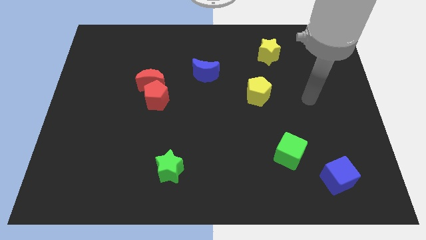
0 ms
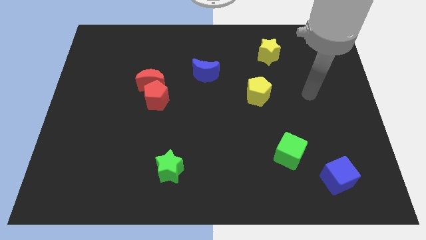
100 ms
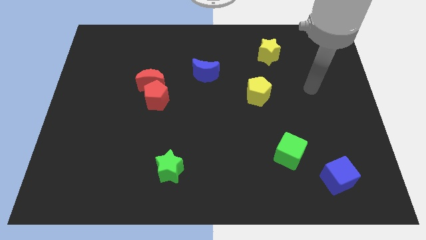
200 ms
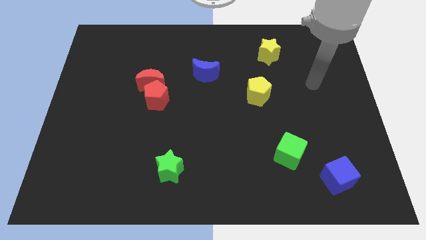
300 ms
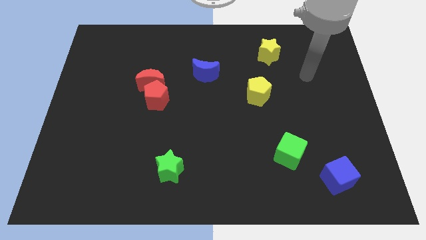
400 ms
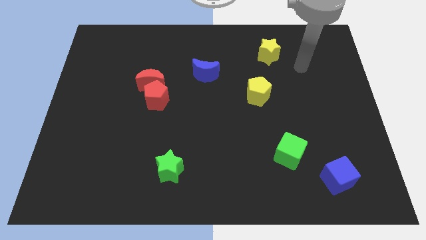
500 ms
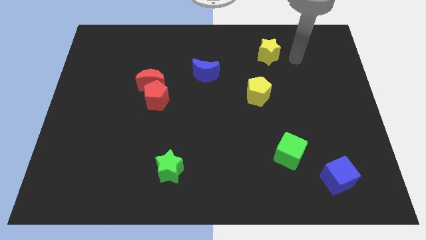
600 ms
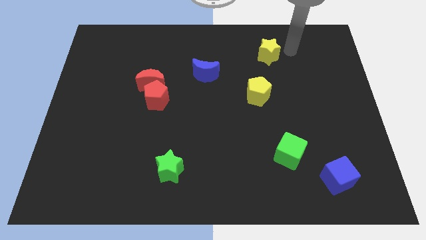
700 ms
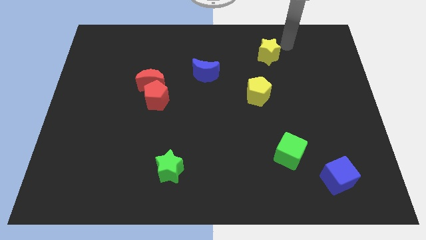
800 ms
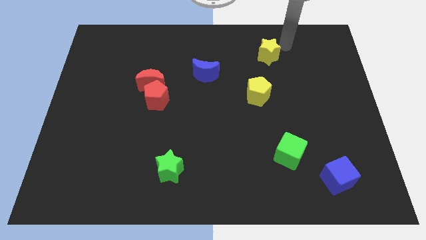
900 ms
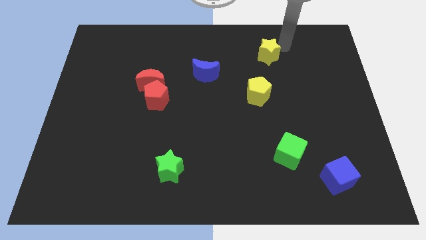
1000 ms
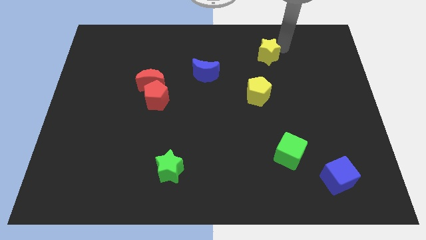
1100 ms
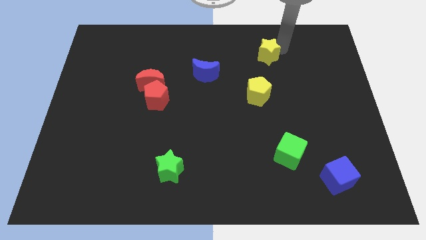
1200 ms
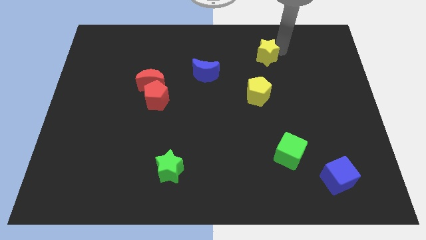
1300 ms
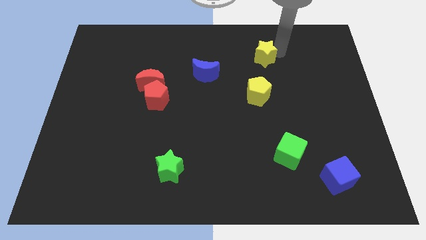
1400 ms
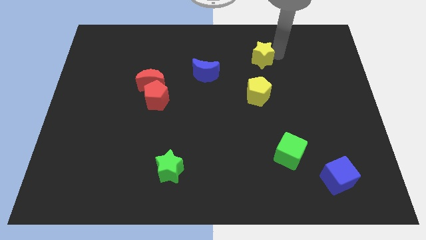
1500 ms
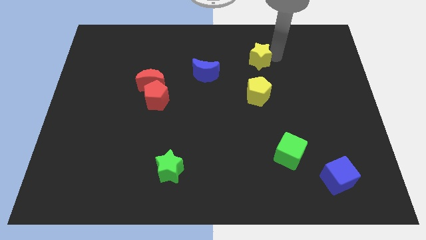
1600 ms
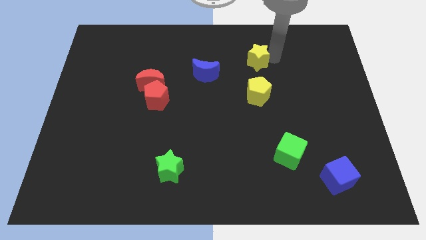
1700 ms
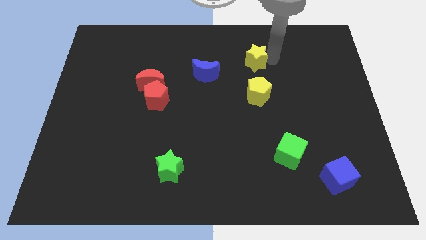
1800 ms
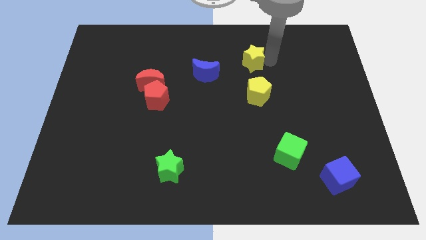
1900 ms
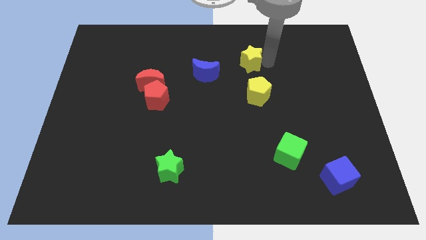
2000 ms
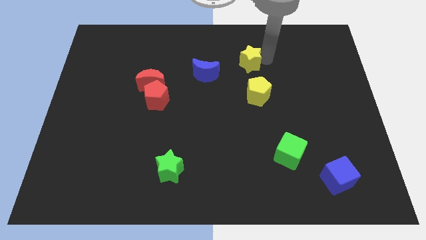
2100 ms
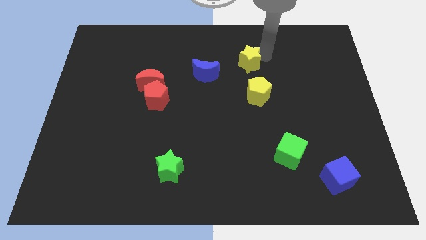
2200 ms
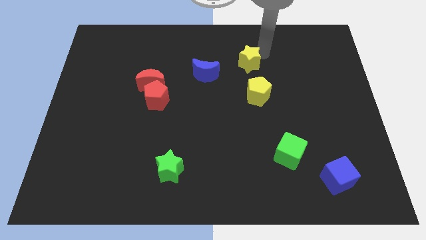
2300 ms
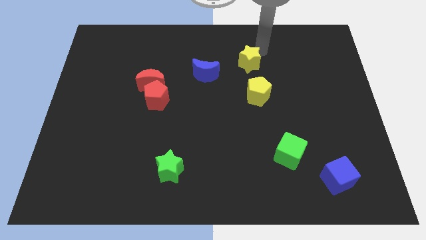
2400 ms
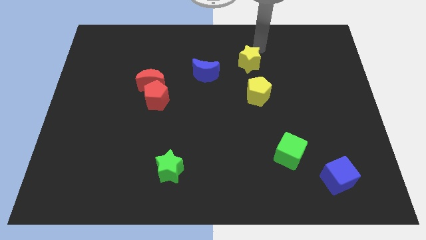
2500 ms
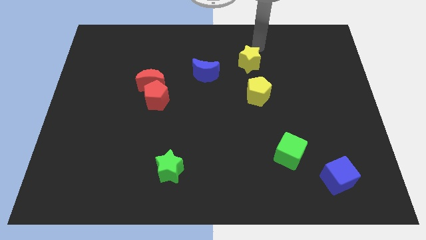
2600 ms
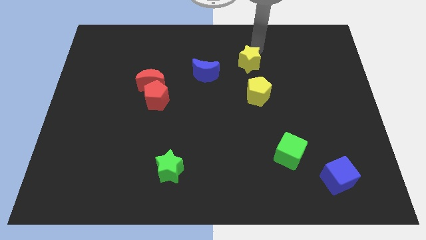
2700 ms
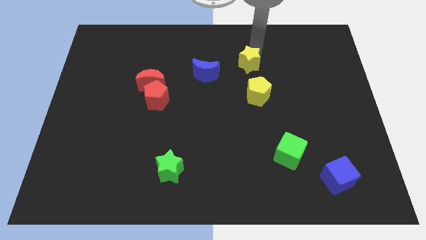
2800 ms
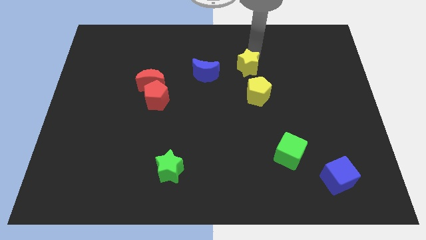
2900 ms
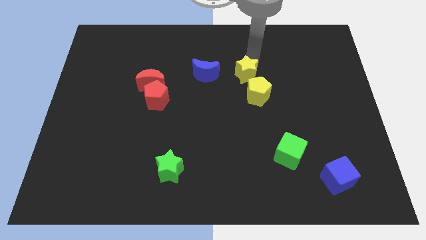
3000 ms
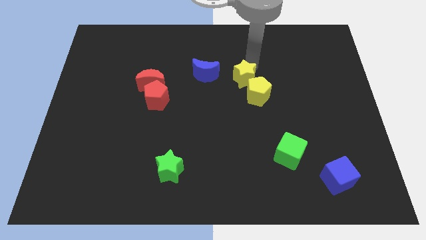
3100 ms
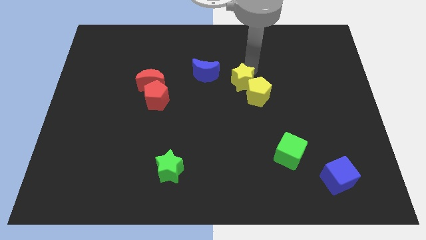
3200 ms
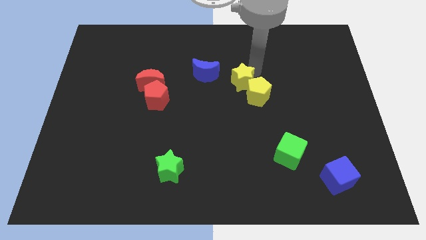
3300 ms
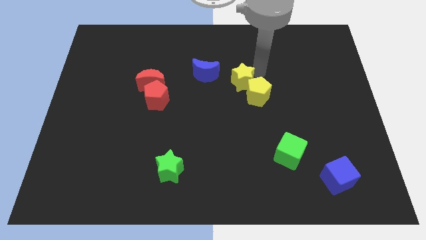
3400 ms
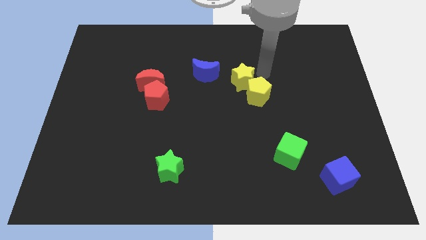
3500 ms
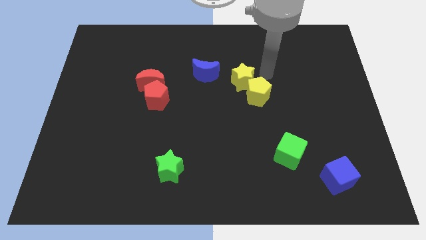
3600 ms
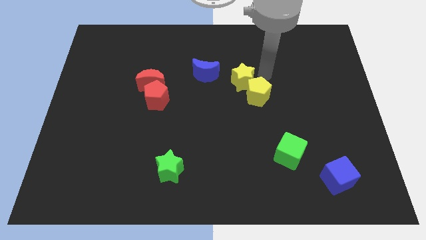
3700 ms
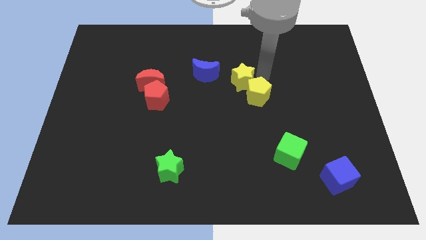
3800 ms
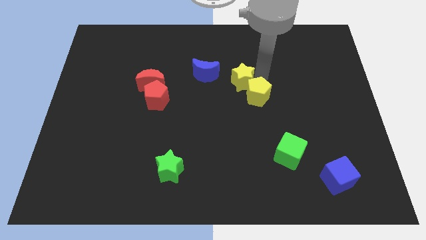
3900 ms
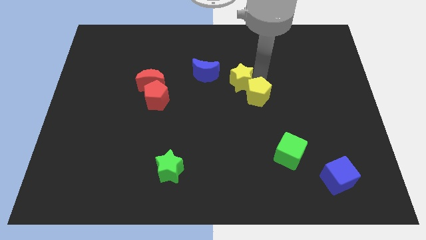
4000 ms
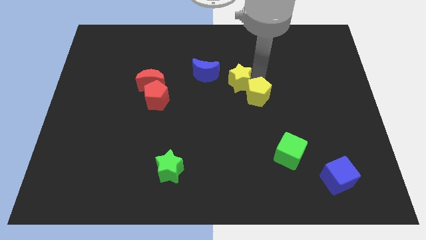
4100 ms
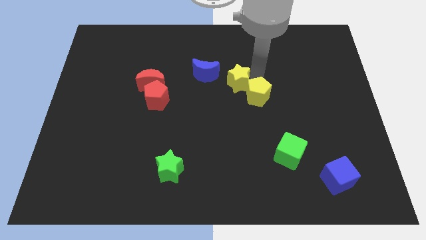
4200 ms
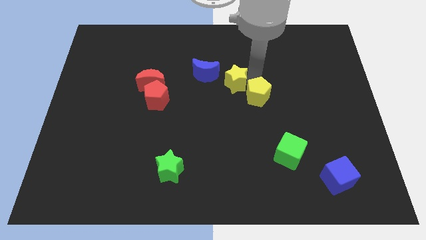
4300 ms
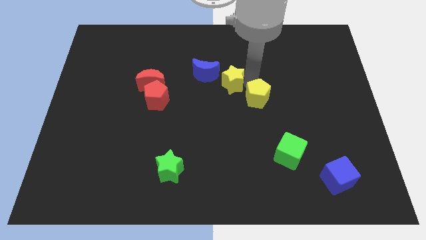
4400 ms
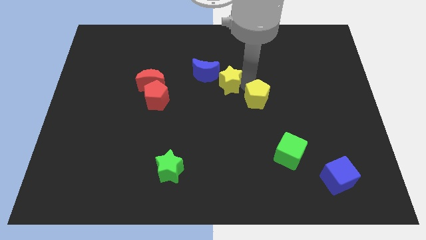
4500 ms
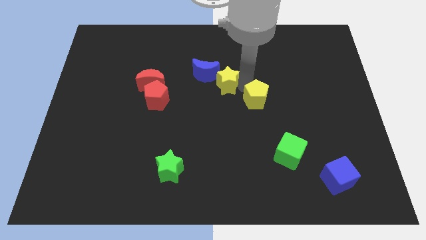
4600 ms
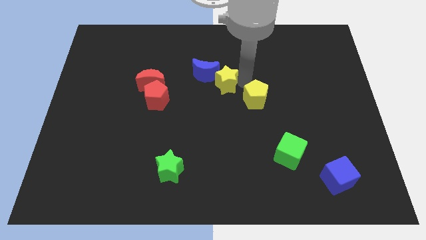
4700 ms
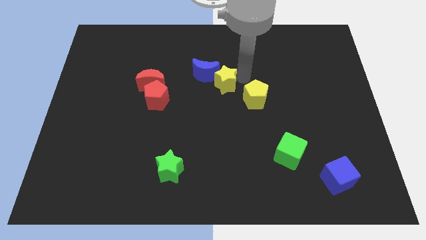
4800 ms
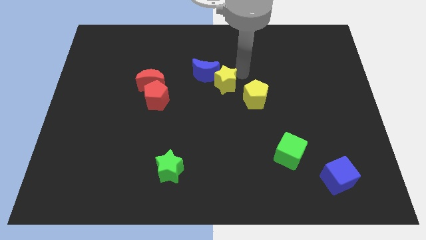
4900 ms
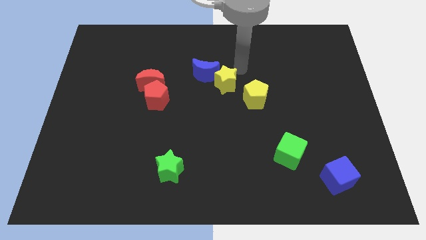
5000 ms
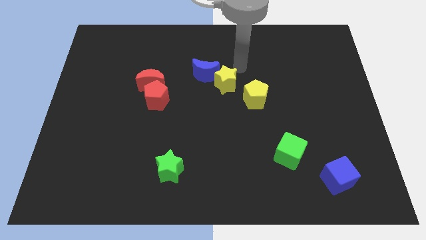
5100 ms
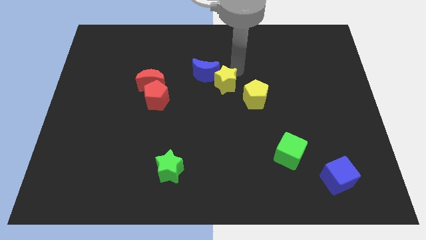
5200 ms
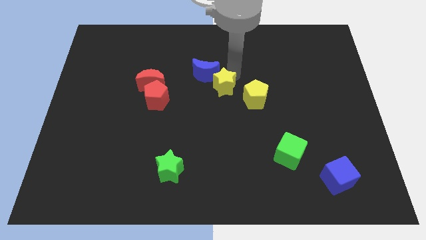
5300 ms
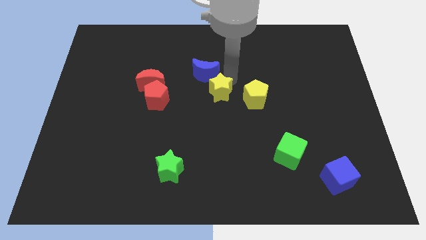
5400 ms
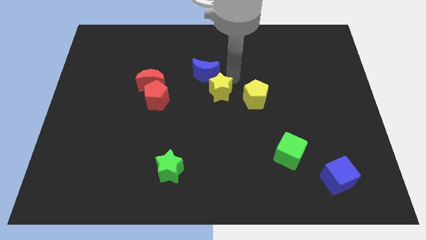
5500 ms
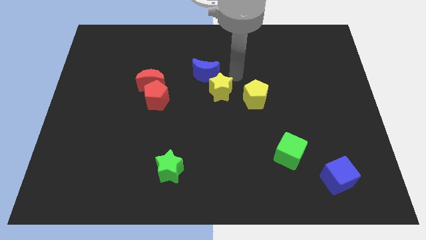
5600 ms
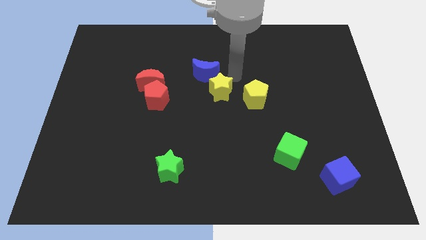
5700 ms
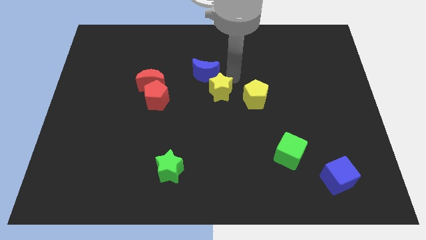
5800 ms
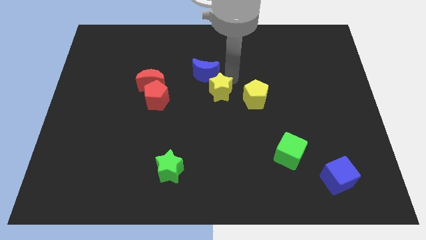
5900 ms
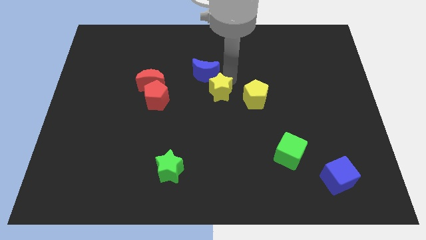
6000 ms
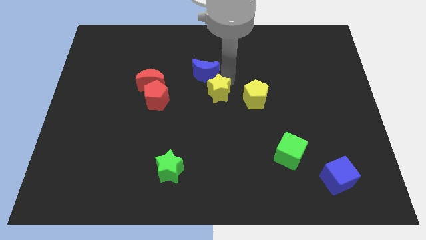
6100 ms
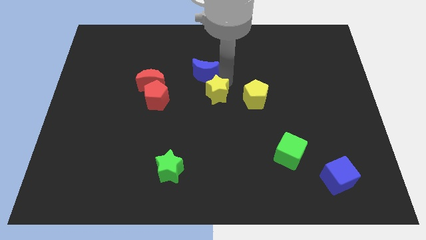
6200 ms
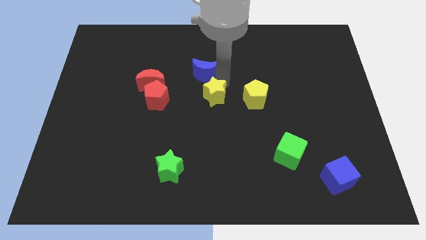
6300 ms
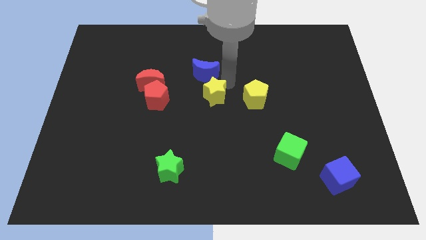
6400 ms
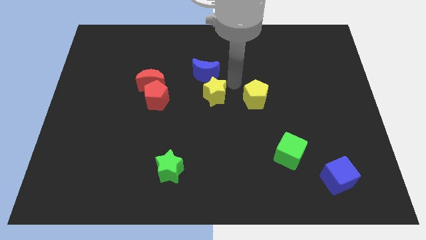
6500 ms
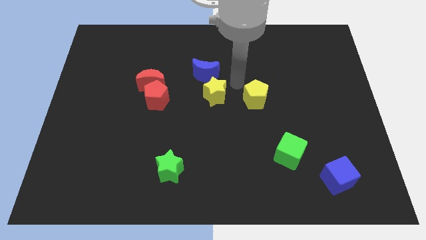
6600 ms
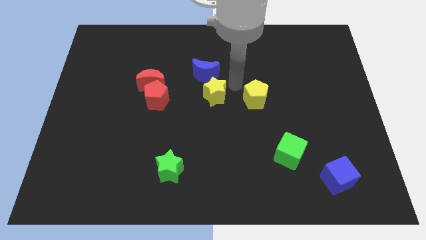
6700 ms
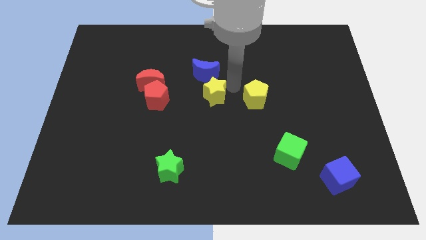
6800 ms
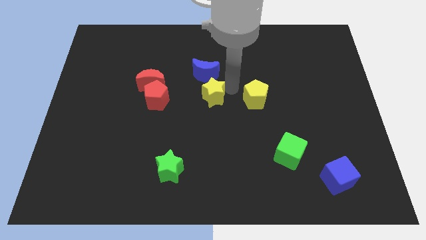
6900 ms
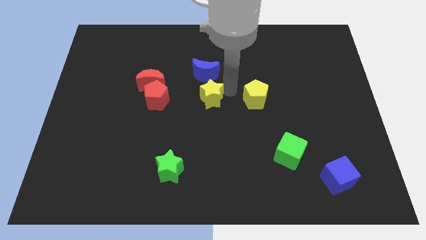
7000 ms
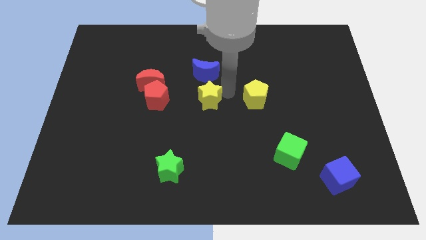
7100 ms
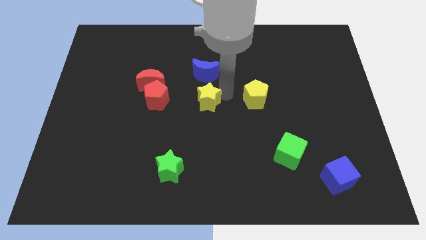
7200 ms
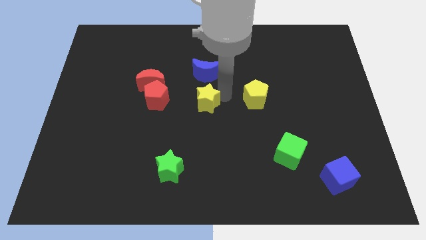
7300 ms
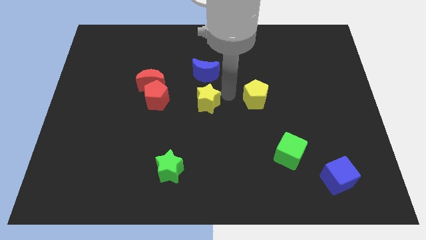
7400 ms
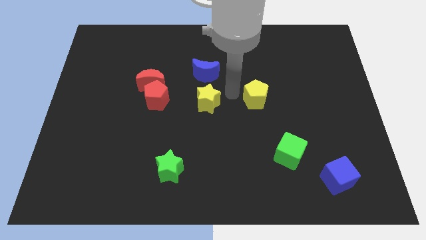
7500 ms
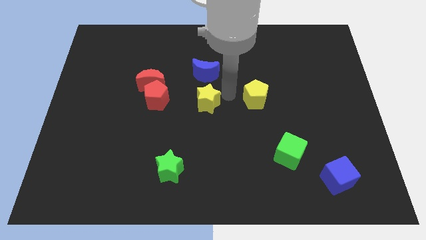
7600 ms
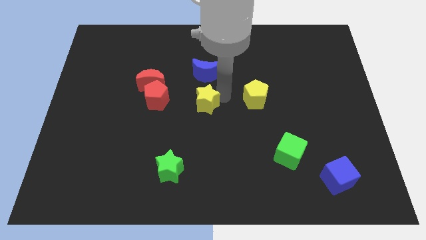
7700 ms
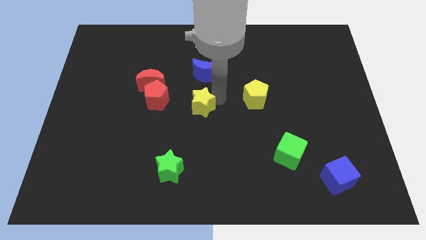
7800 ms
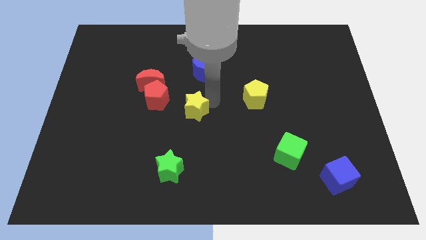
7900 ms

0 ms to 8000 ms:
push the yellow star diagonally down and to the right of the red pentagon
